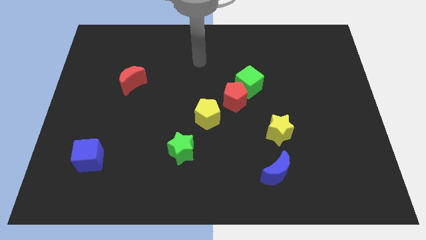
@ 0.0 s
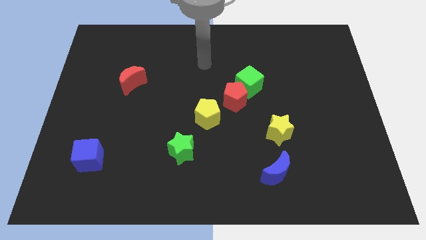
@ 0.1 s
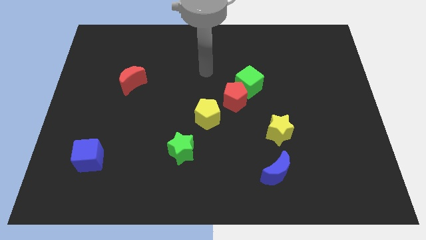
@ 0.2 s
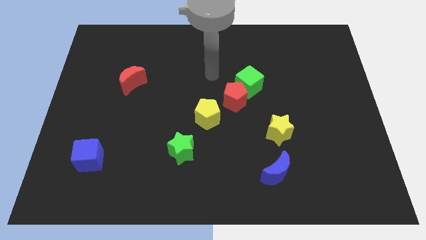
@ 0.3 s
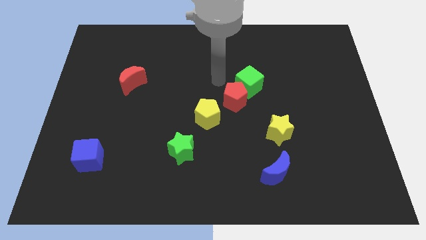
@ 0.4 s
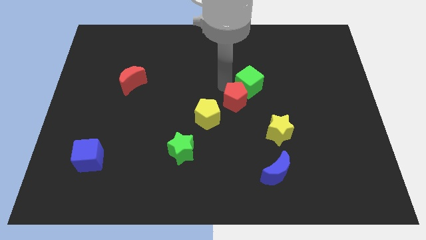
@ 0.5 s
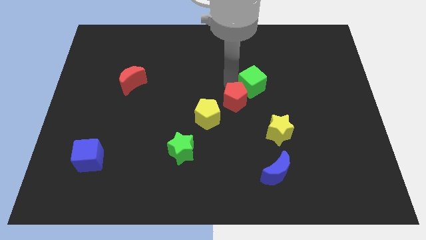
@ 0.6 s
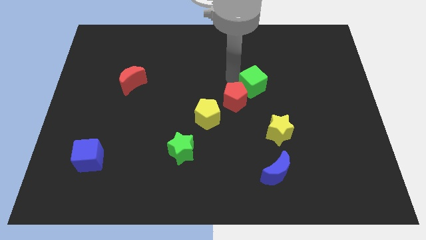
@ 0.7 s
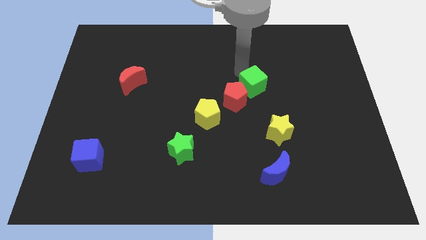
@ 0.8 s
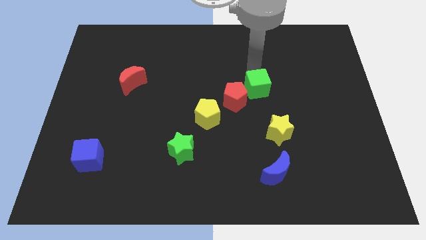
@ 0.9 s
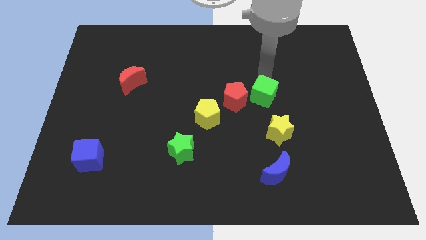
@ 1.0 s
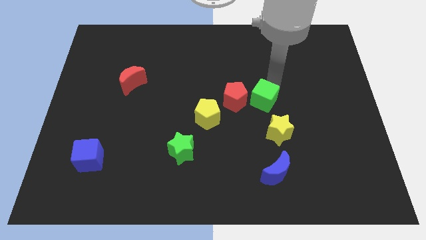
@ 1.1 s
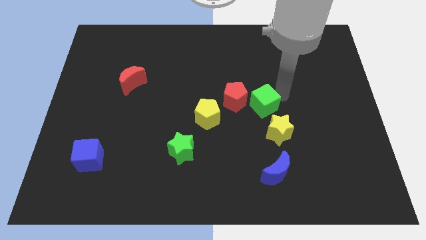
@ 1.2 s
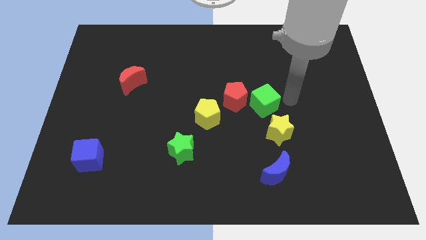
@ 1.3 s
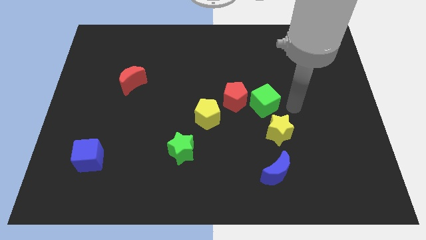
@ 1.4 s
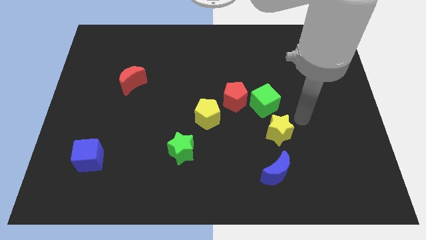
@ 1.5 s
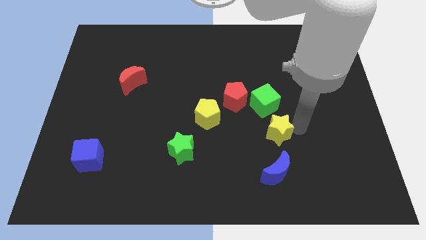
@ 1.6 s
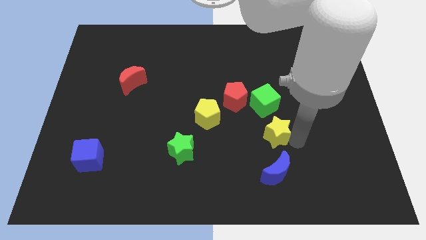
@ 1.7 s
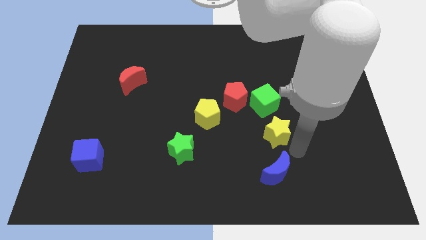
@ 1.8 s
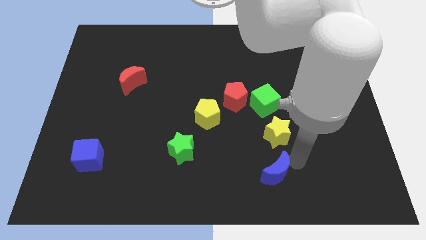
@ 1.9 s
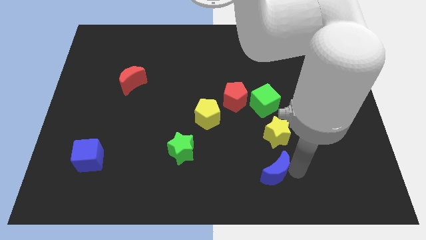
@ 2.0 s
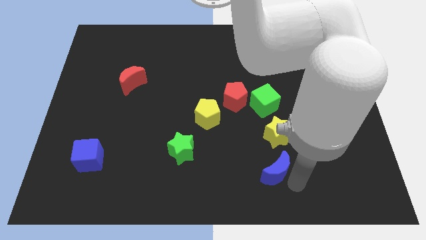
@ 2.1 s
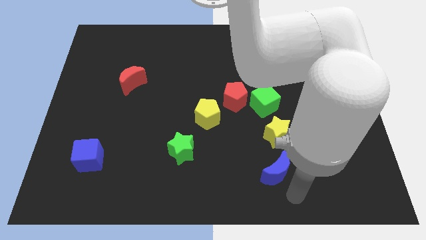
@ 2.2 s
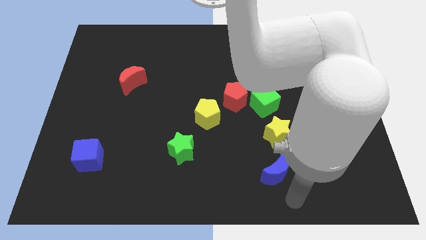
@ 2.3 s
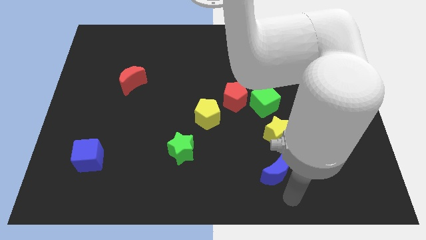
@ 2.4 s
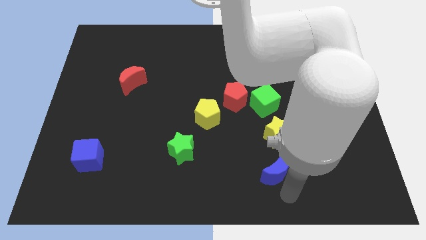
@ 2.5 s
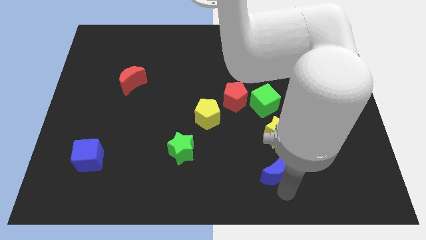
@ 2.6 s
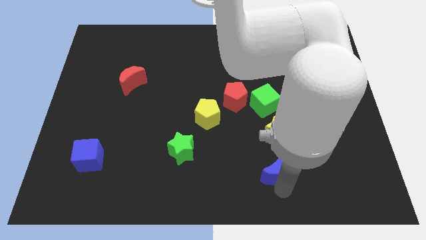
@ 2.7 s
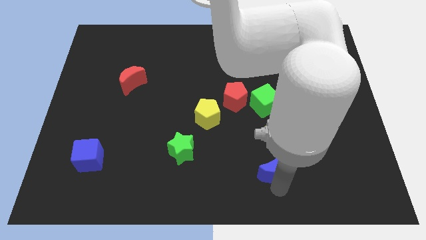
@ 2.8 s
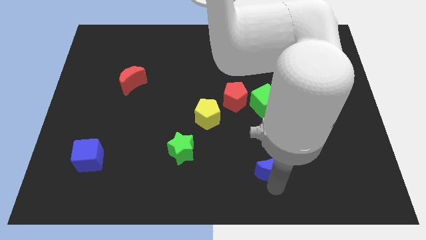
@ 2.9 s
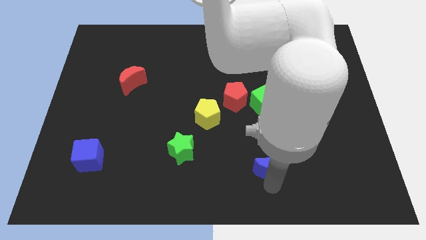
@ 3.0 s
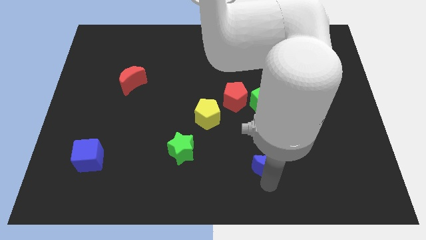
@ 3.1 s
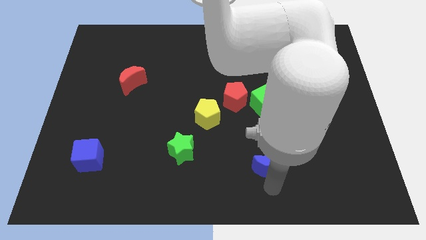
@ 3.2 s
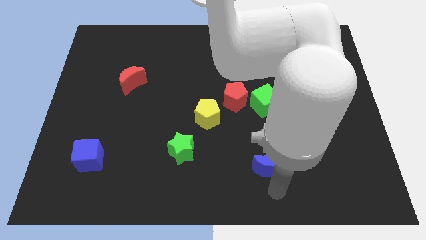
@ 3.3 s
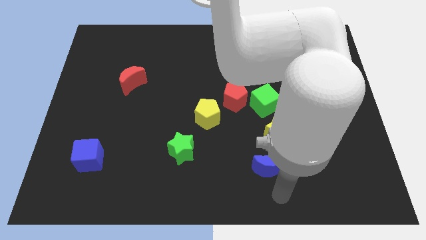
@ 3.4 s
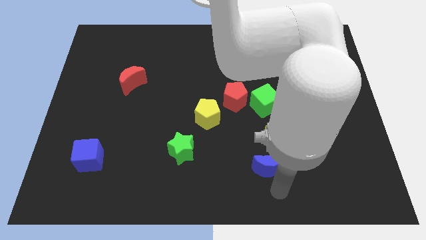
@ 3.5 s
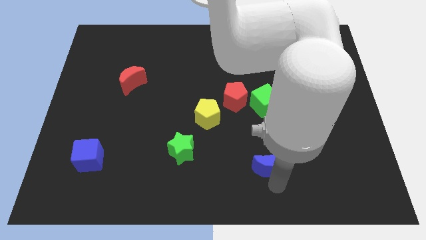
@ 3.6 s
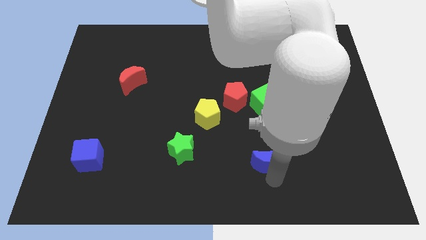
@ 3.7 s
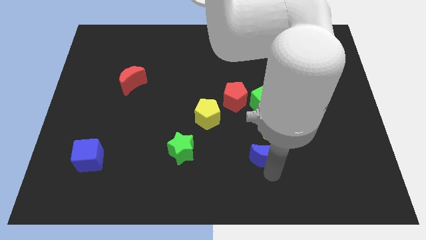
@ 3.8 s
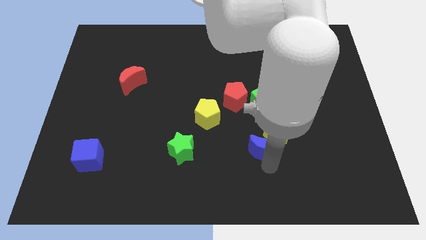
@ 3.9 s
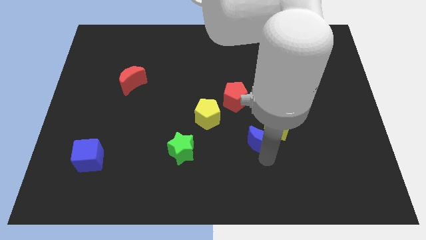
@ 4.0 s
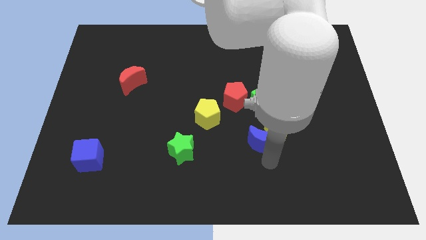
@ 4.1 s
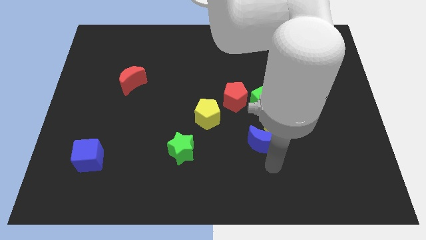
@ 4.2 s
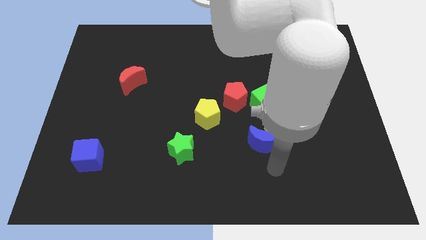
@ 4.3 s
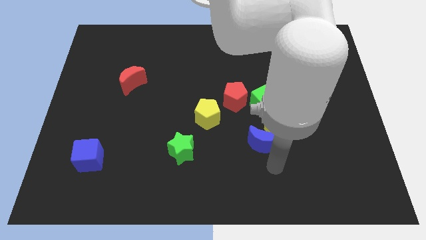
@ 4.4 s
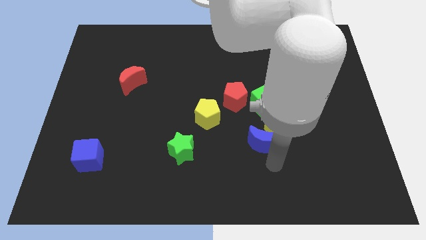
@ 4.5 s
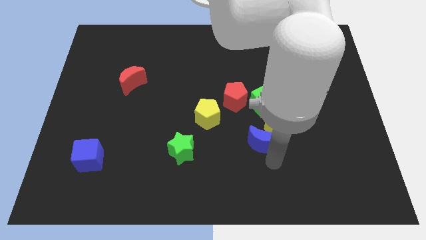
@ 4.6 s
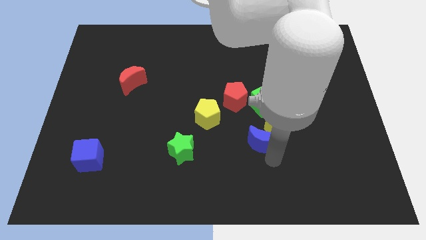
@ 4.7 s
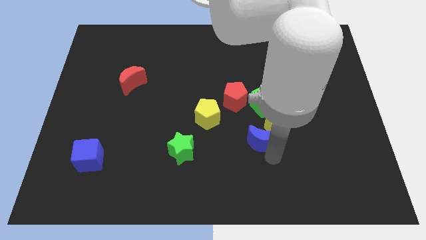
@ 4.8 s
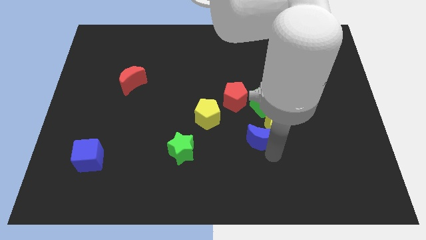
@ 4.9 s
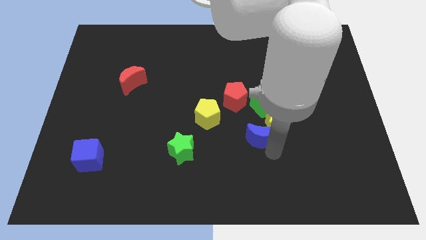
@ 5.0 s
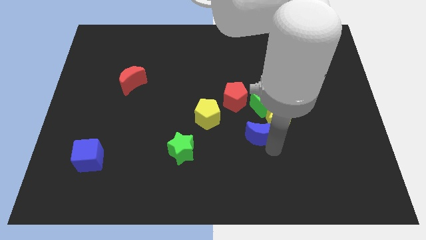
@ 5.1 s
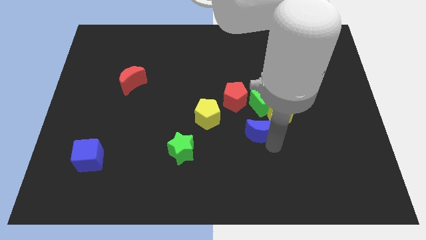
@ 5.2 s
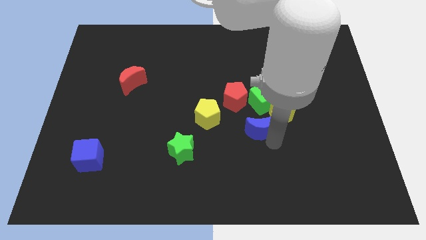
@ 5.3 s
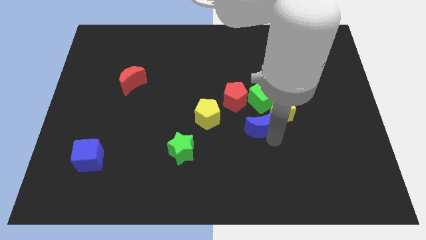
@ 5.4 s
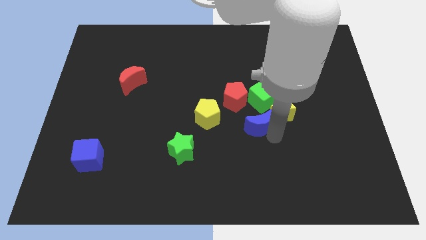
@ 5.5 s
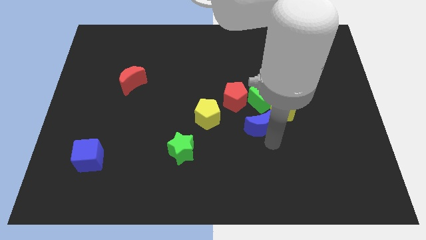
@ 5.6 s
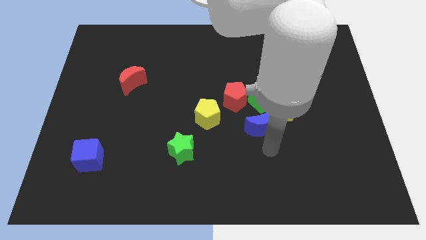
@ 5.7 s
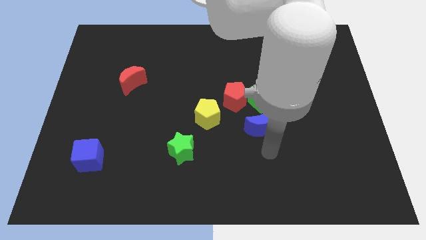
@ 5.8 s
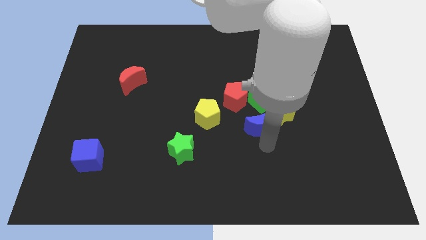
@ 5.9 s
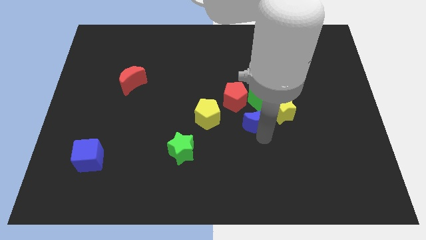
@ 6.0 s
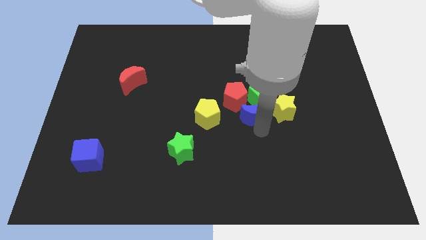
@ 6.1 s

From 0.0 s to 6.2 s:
put the blue moon to the green cube

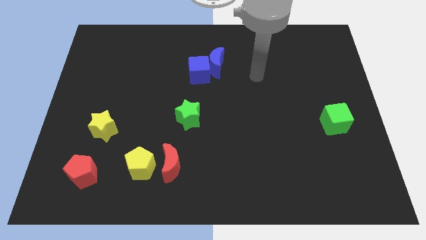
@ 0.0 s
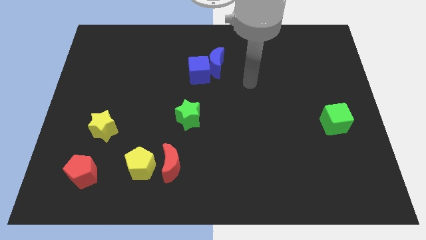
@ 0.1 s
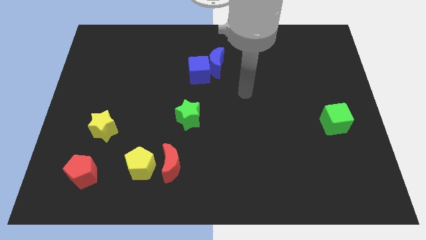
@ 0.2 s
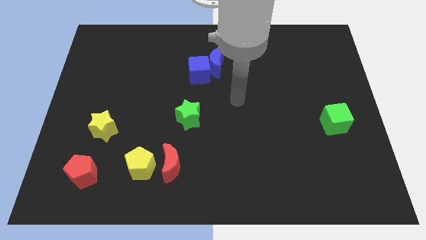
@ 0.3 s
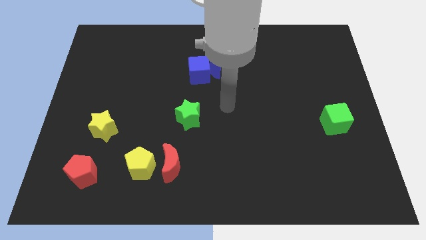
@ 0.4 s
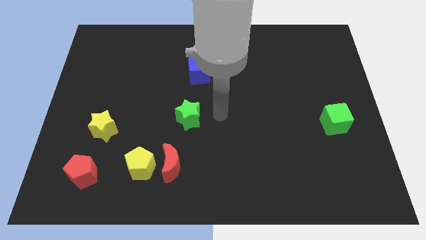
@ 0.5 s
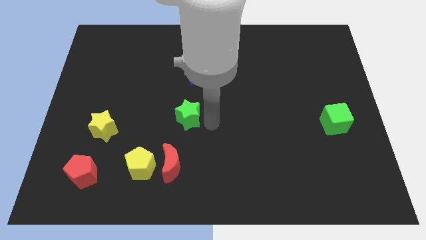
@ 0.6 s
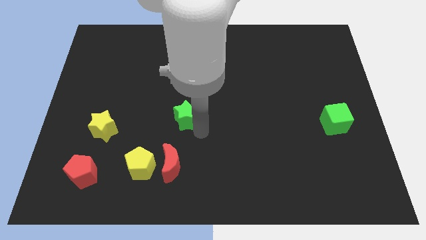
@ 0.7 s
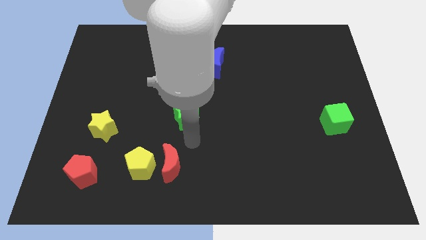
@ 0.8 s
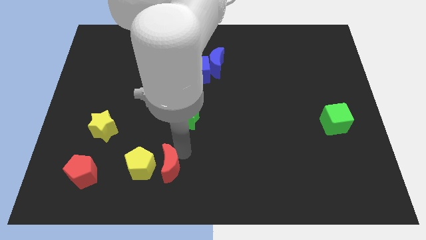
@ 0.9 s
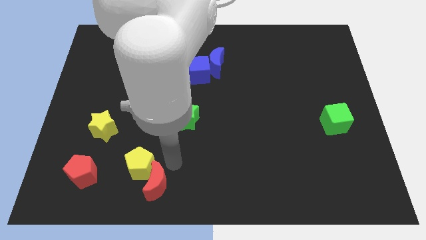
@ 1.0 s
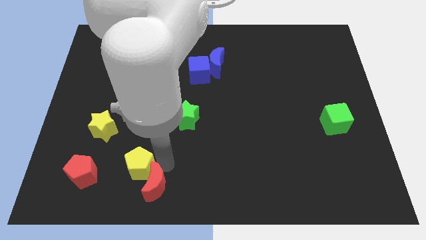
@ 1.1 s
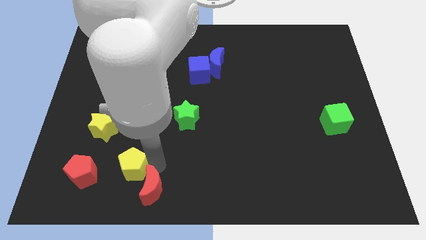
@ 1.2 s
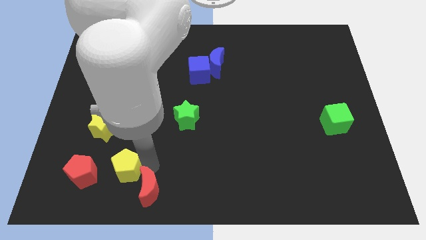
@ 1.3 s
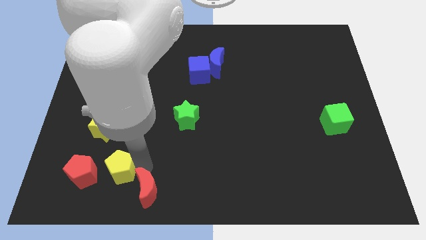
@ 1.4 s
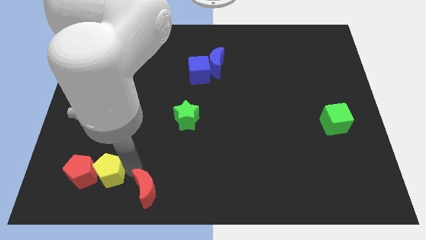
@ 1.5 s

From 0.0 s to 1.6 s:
slide the yellow pentagon to the red pentagon
